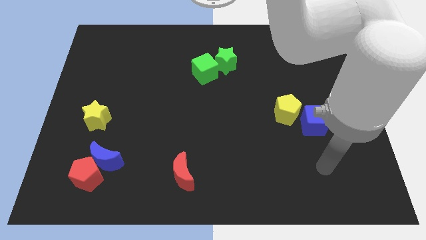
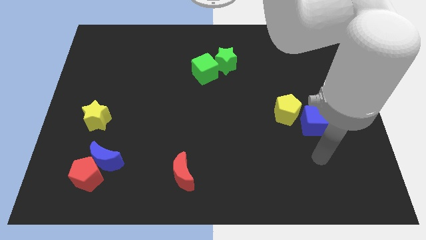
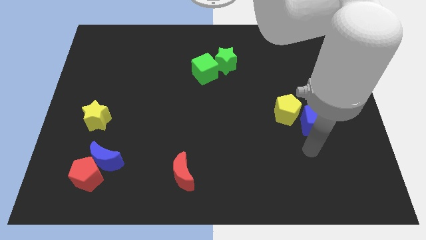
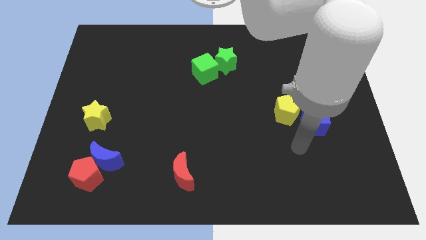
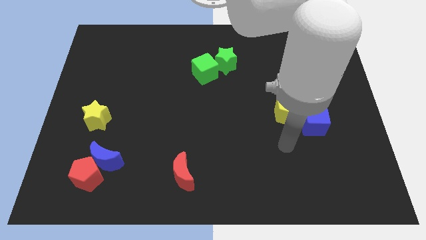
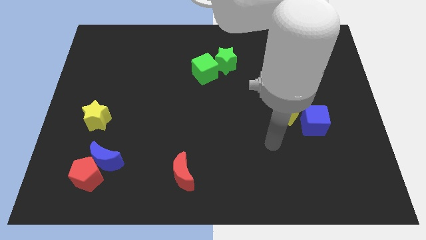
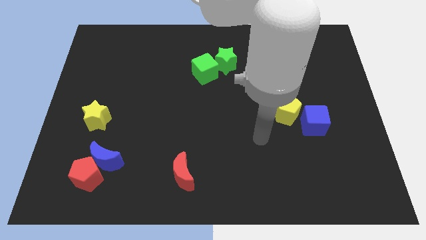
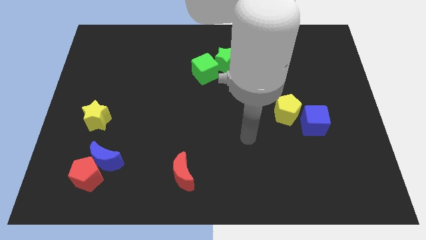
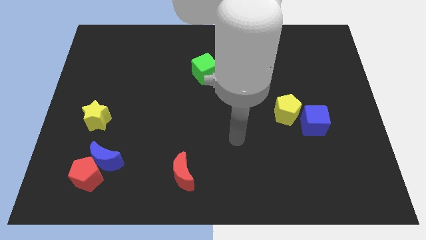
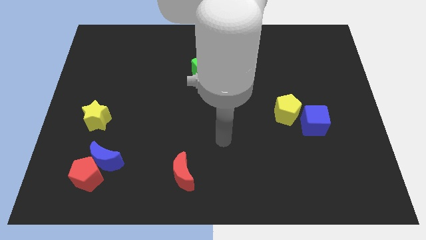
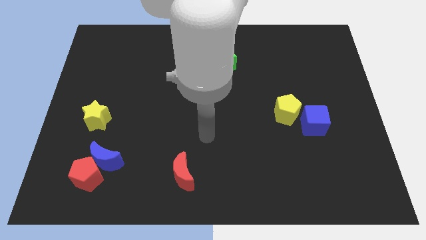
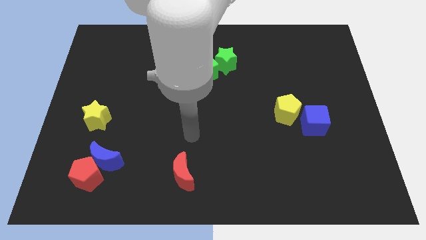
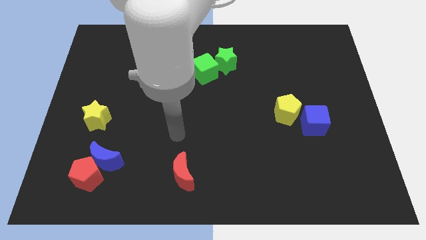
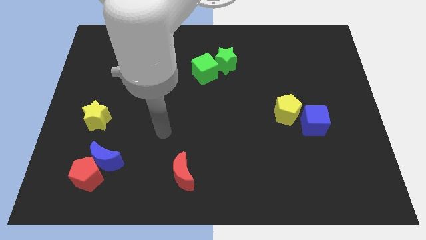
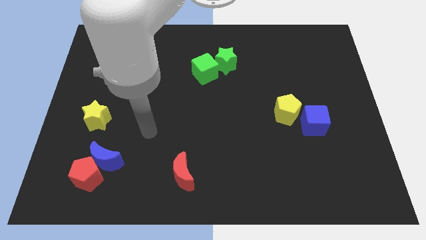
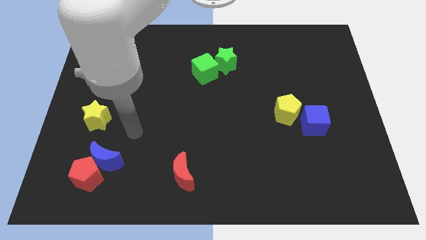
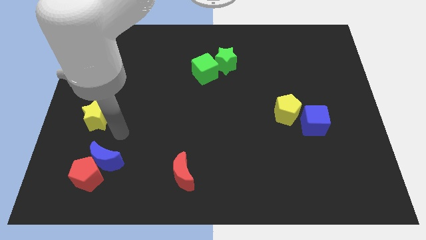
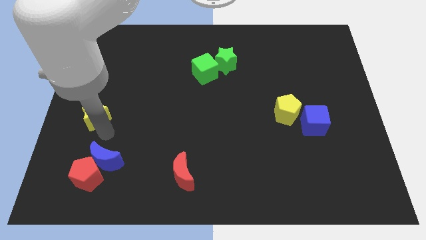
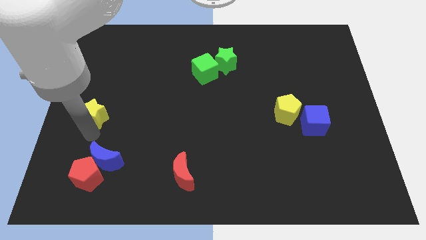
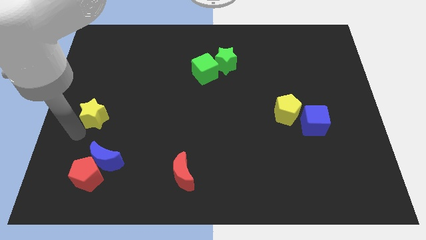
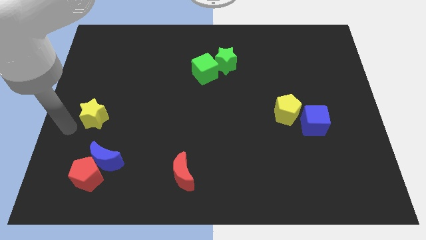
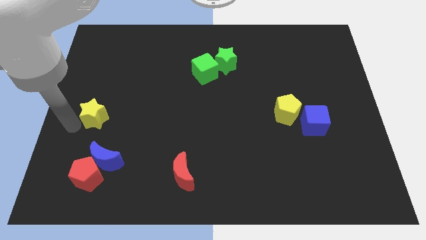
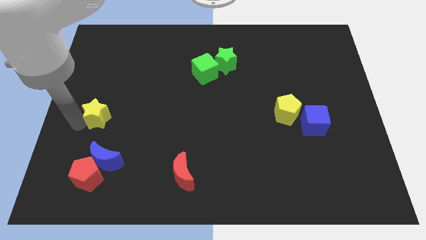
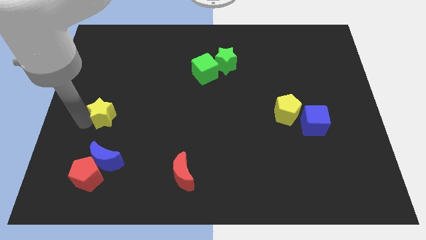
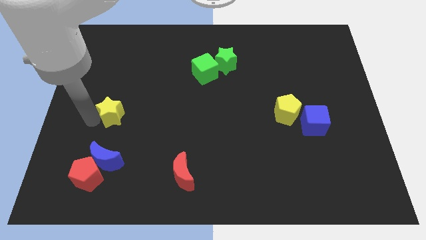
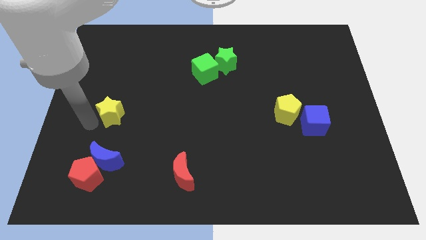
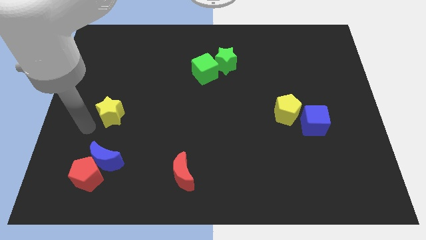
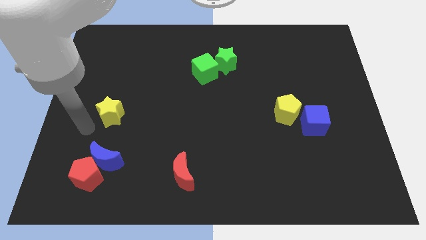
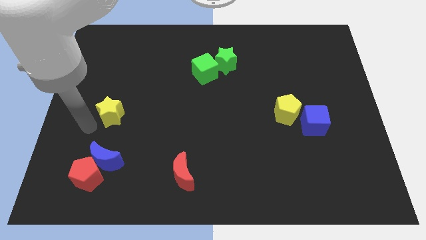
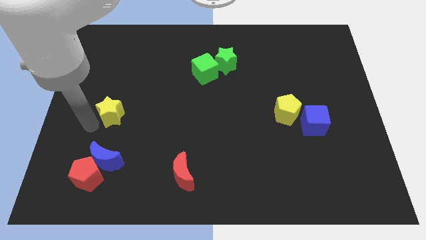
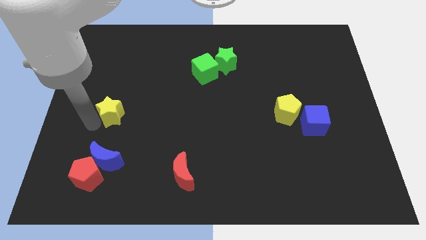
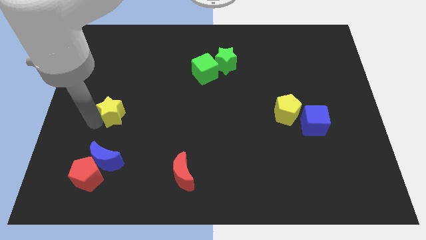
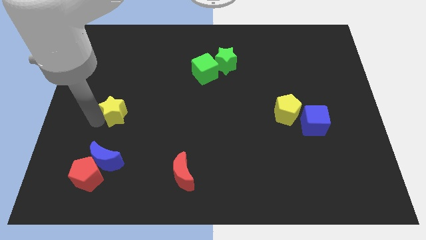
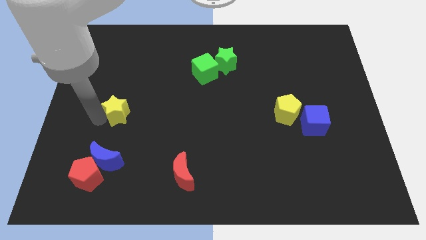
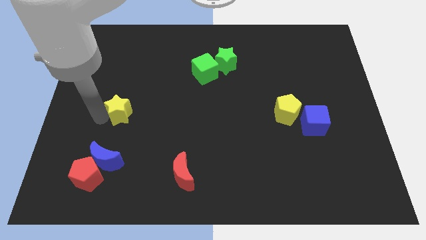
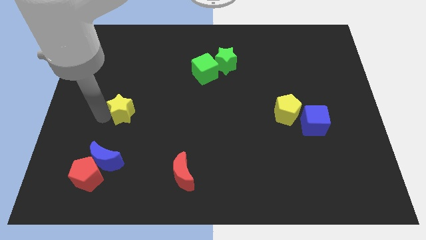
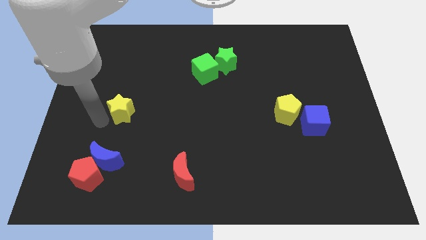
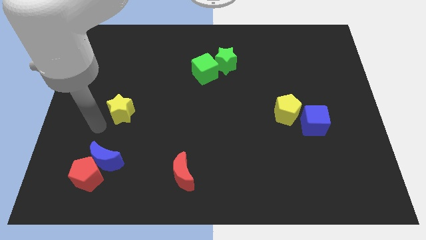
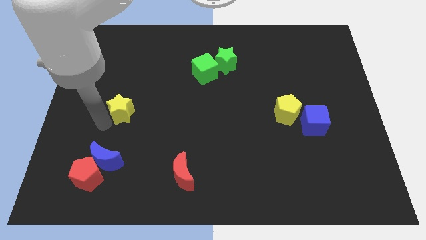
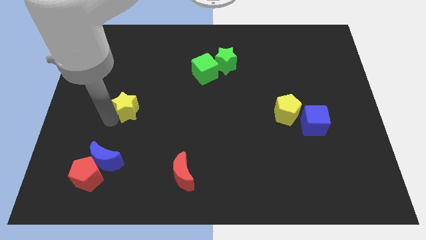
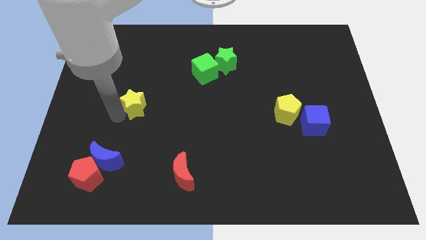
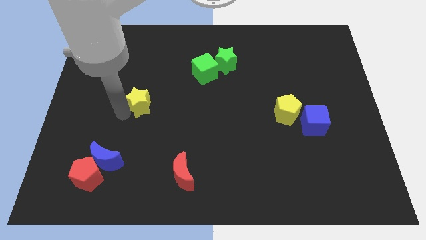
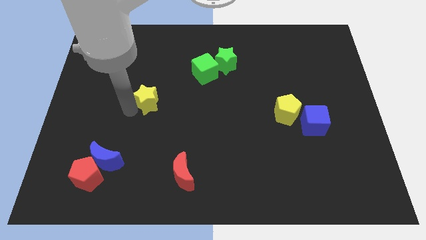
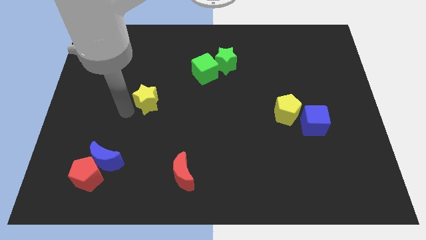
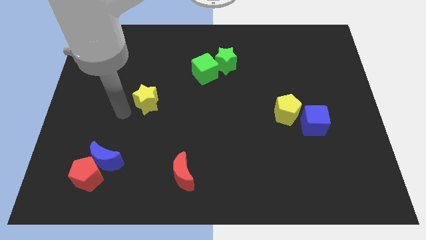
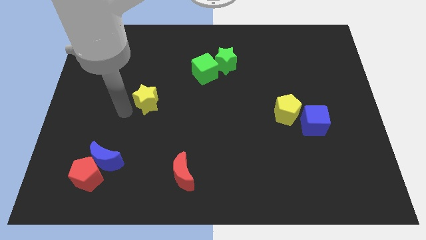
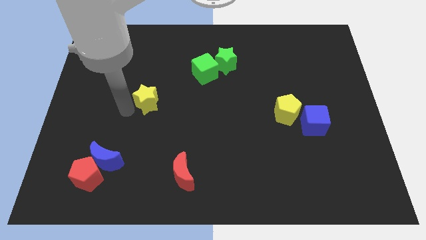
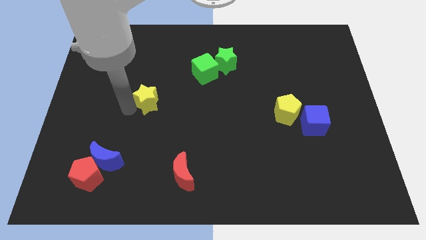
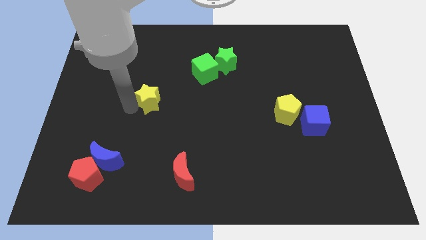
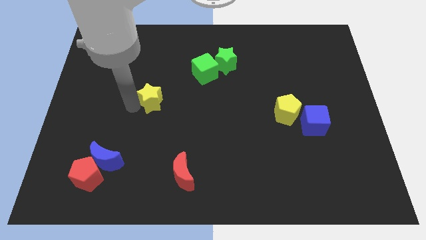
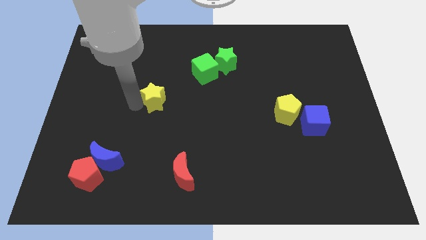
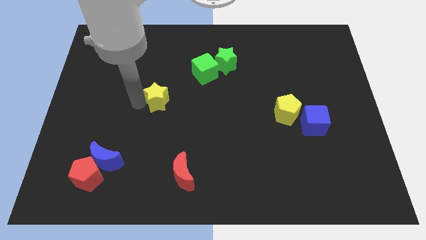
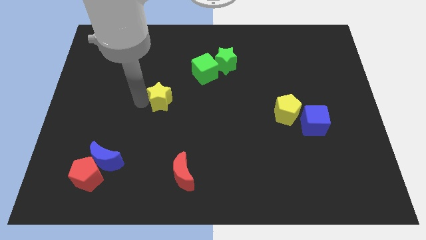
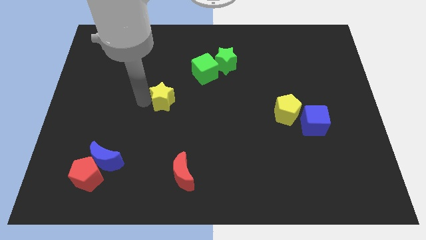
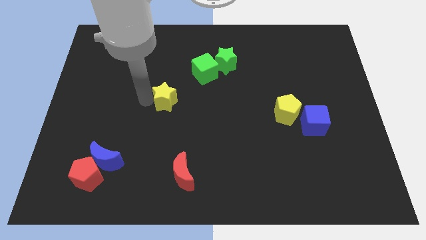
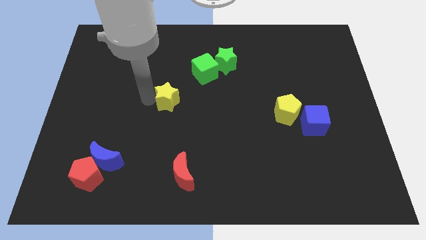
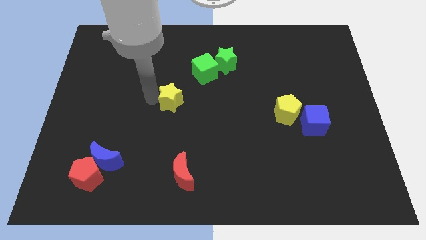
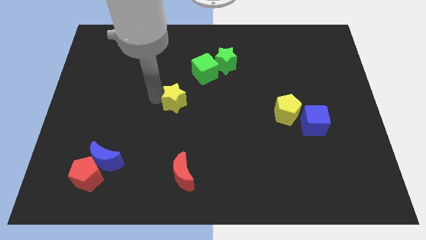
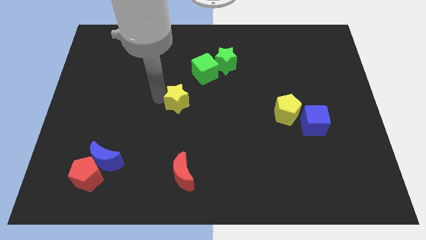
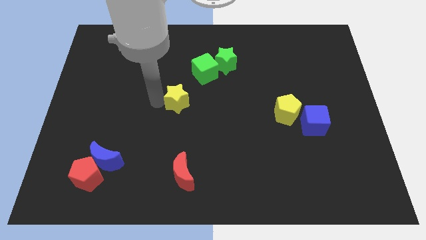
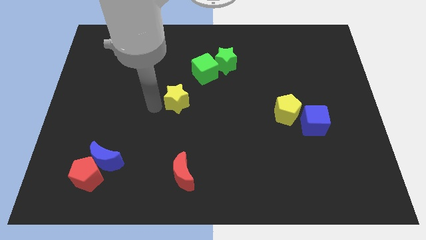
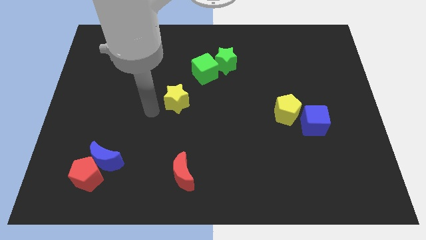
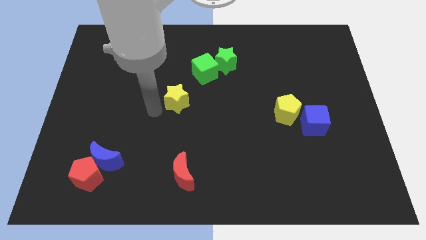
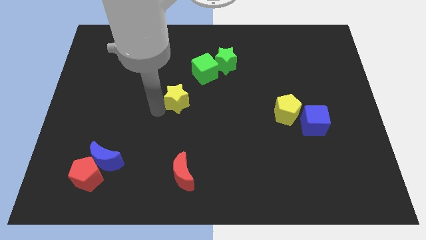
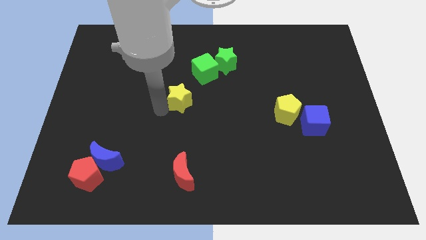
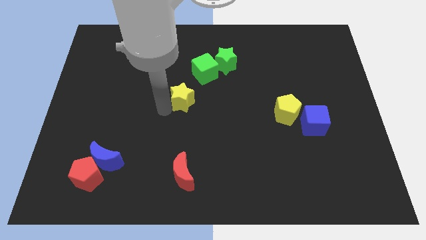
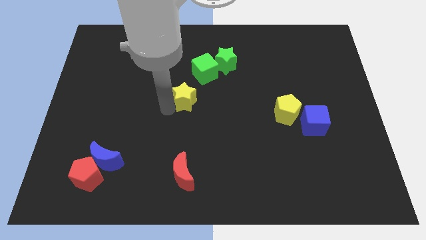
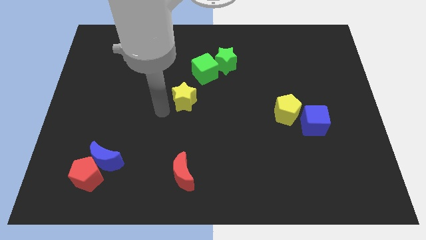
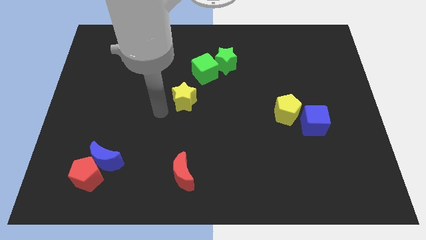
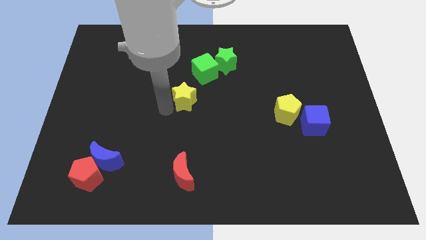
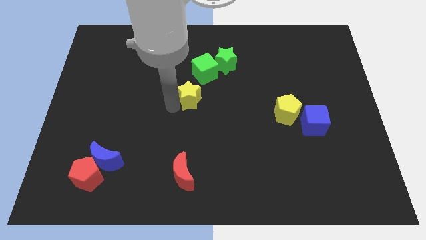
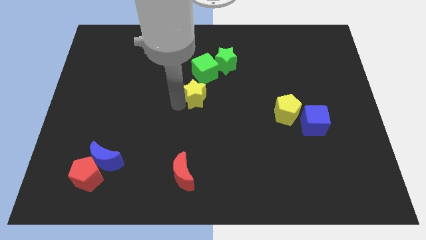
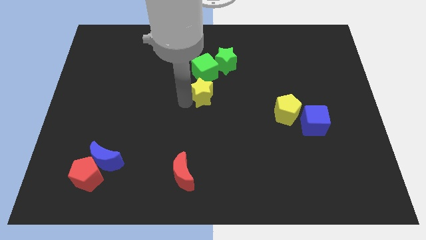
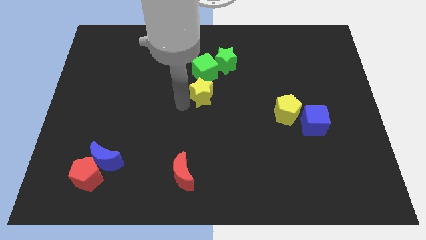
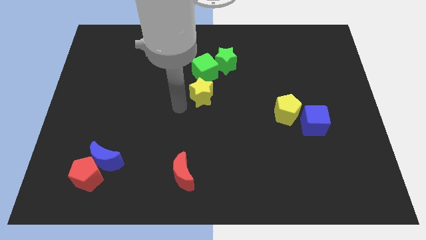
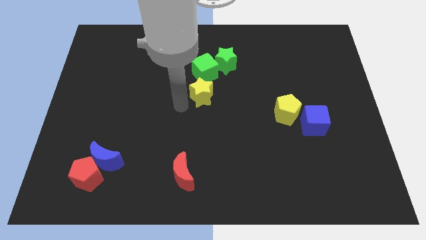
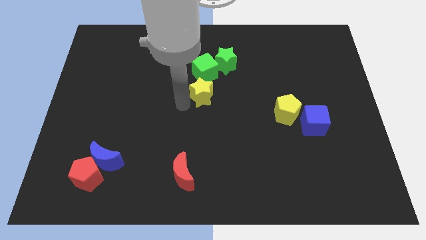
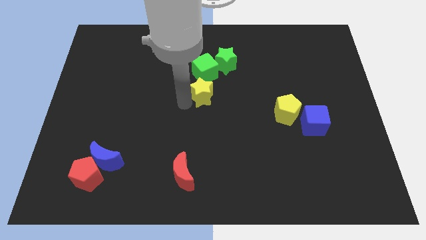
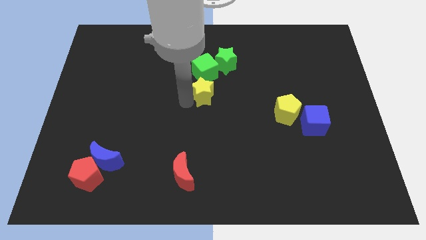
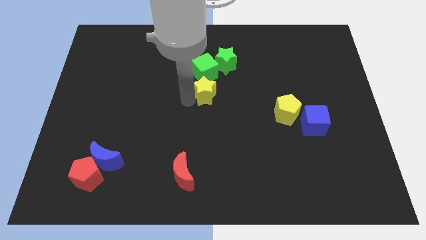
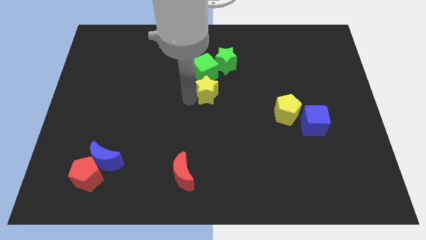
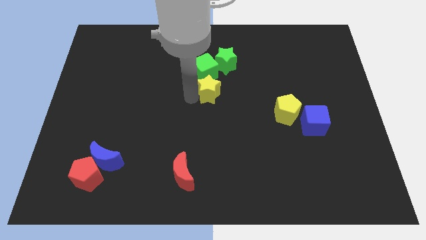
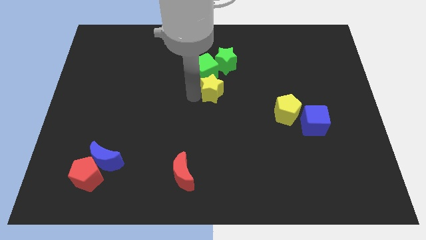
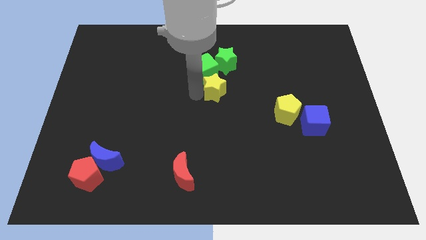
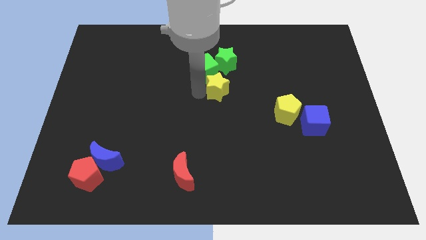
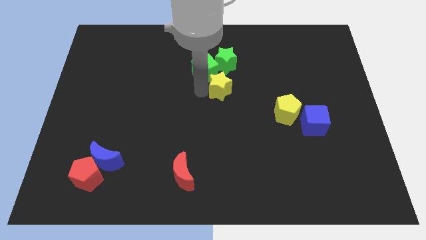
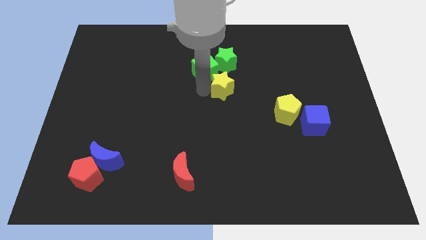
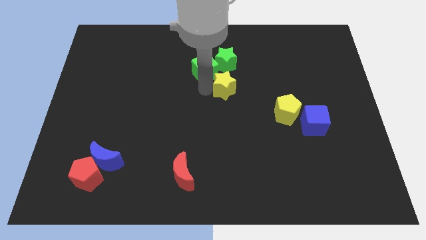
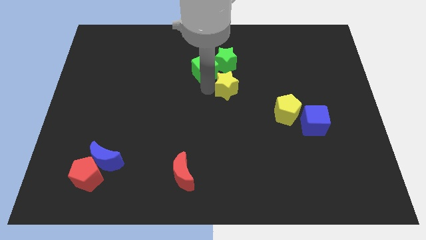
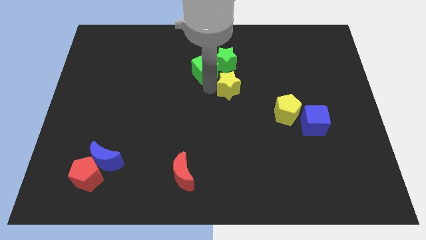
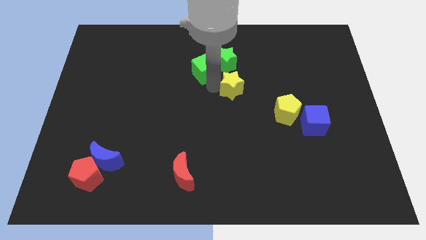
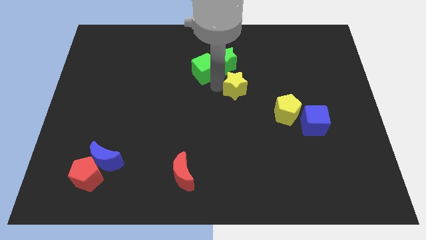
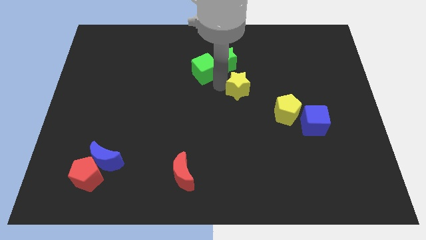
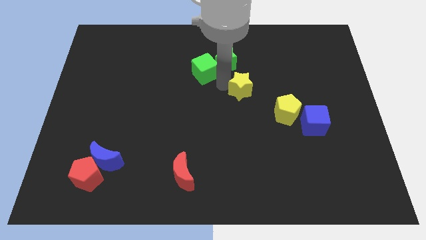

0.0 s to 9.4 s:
slide the yellow star to the top left side of the yellow pentagon
